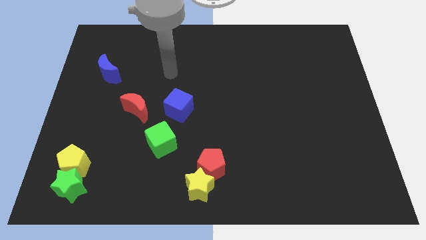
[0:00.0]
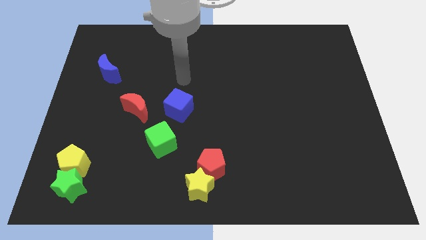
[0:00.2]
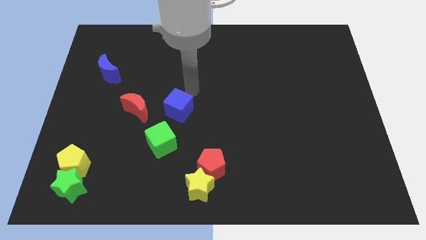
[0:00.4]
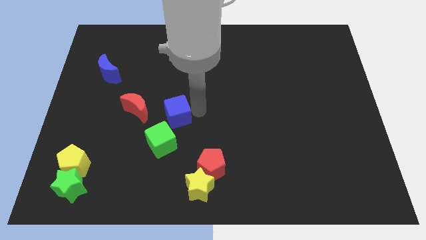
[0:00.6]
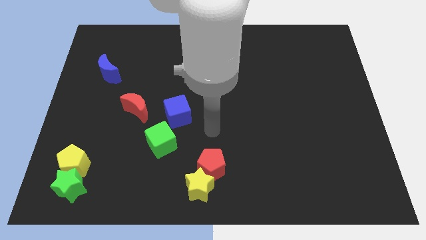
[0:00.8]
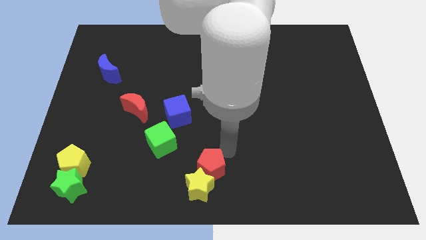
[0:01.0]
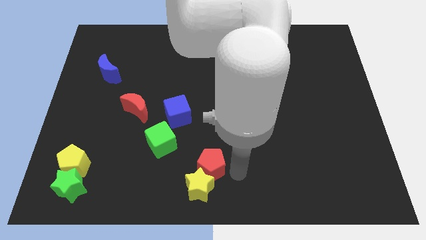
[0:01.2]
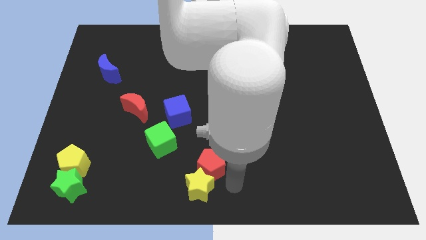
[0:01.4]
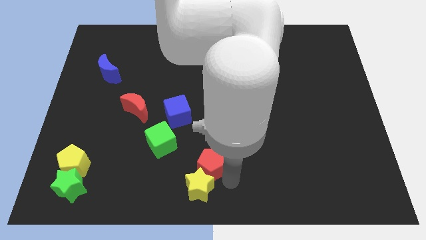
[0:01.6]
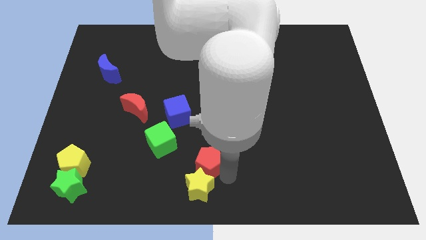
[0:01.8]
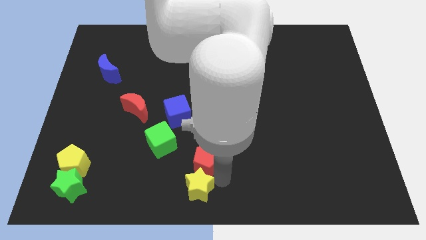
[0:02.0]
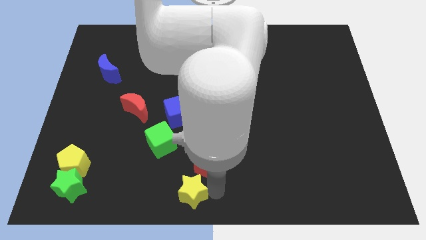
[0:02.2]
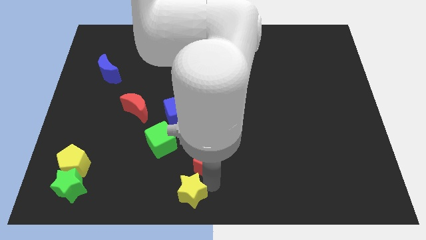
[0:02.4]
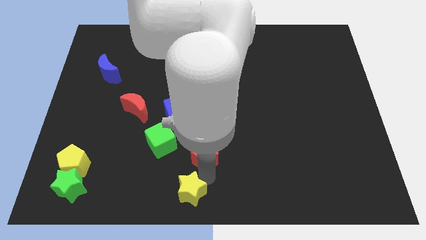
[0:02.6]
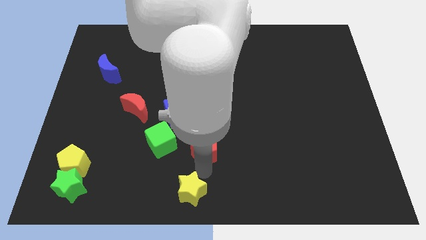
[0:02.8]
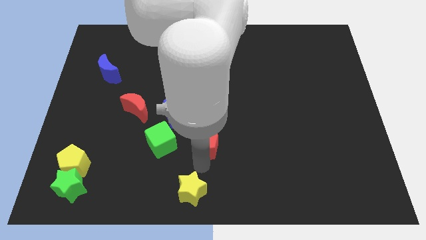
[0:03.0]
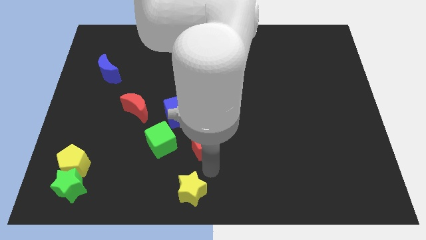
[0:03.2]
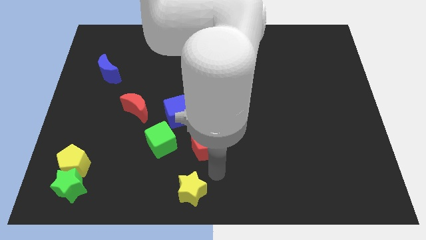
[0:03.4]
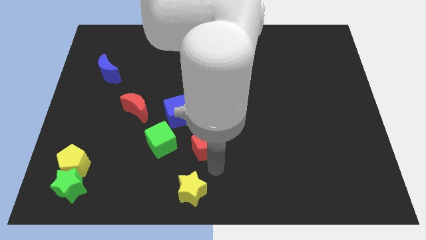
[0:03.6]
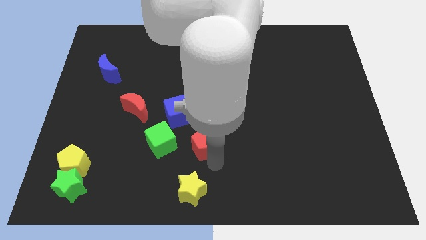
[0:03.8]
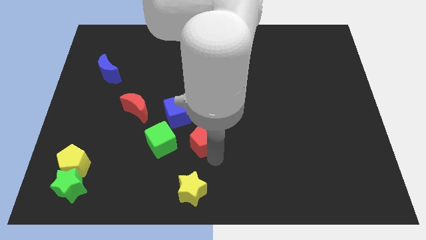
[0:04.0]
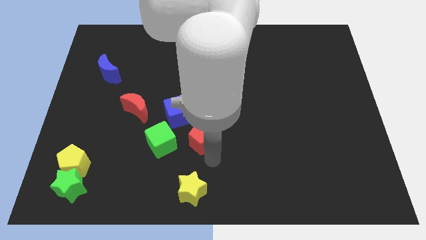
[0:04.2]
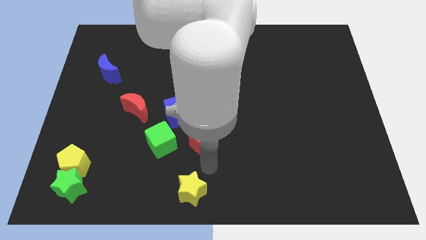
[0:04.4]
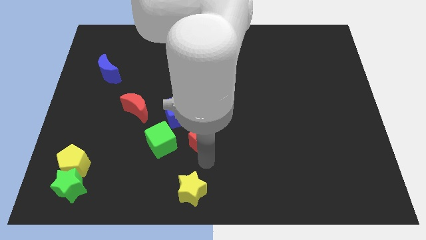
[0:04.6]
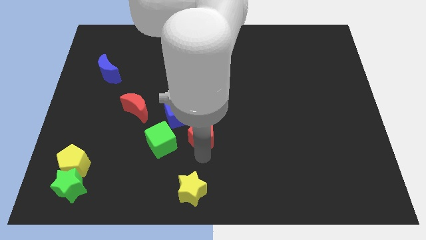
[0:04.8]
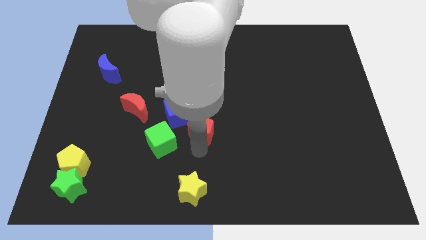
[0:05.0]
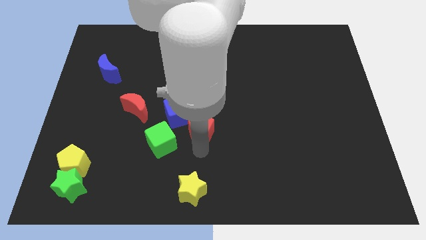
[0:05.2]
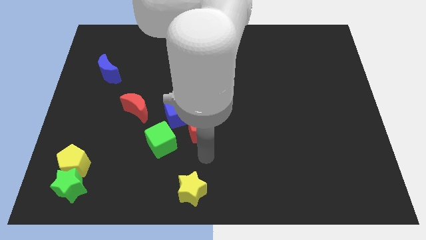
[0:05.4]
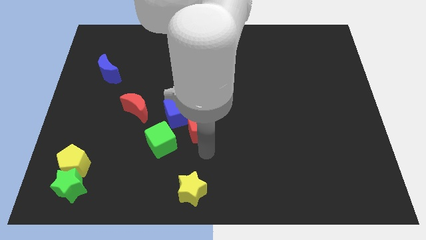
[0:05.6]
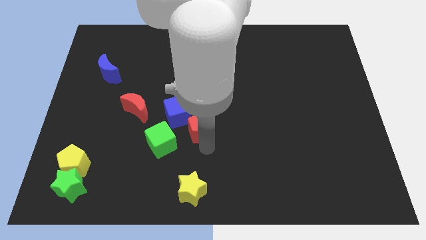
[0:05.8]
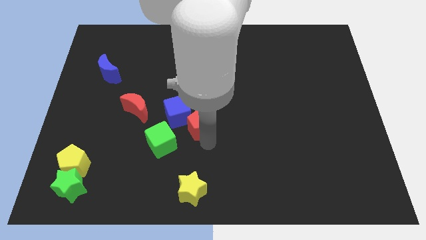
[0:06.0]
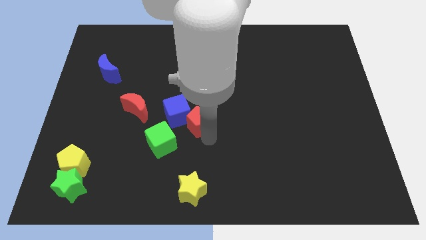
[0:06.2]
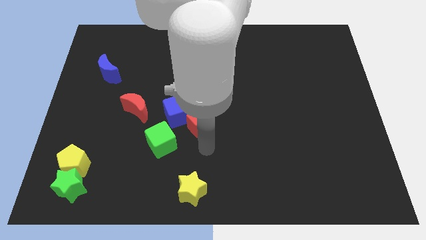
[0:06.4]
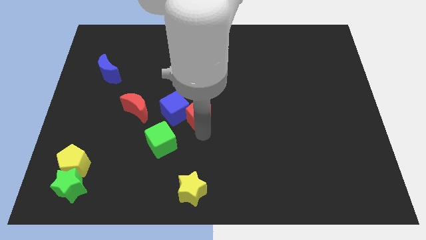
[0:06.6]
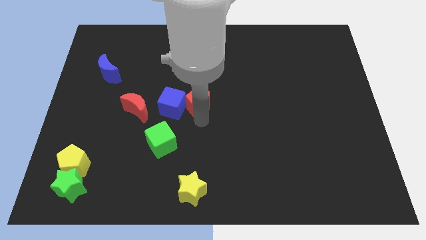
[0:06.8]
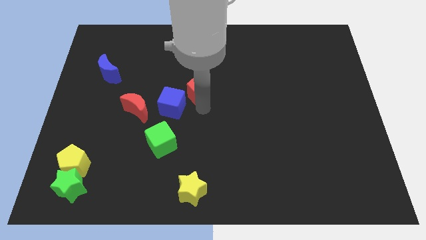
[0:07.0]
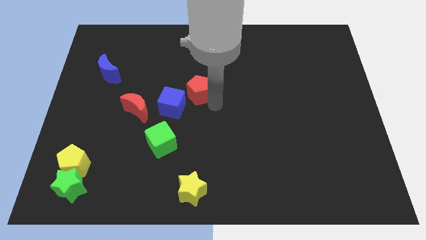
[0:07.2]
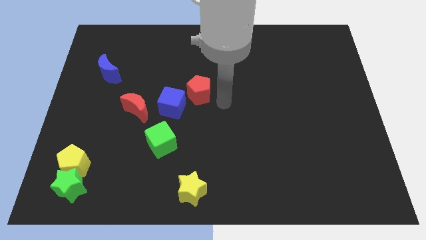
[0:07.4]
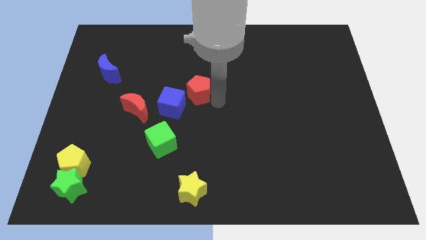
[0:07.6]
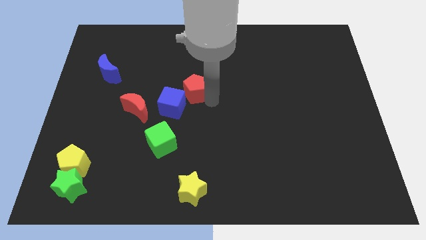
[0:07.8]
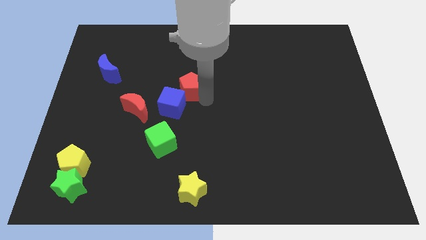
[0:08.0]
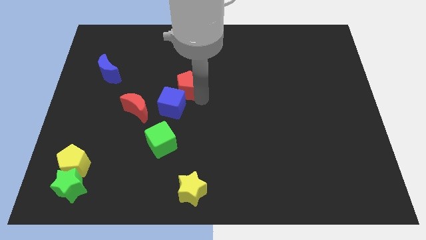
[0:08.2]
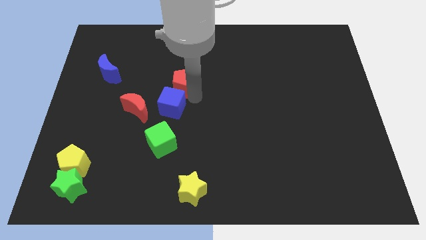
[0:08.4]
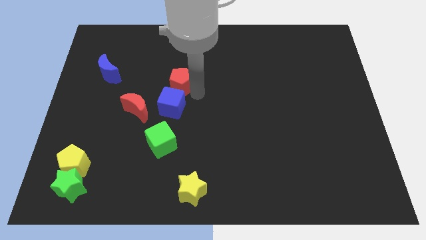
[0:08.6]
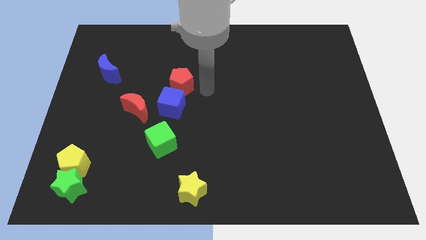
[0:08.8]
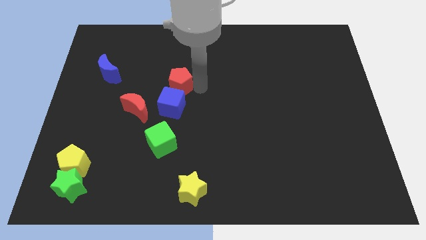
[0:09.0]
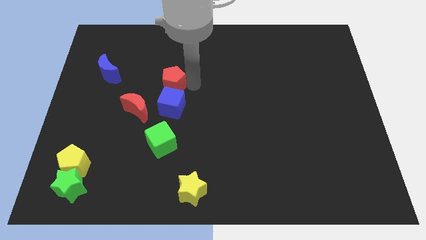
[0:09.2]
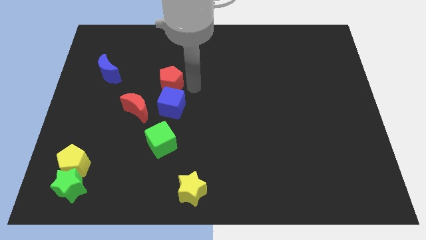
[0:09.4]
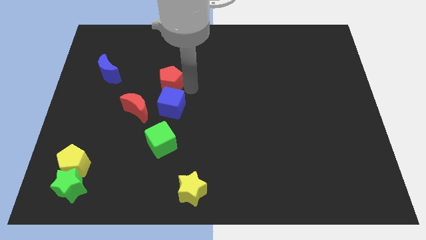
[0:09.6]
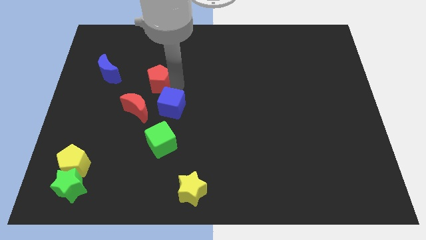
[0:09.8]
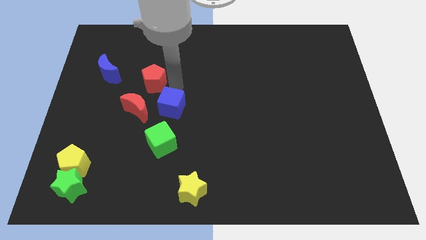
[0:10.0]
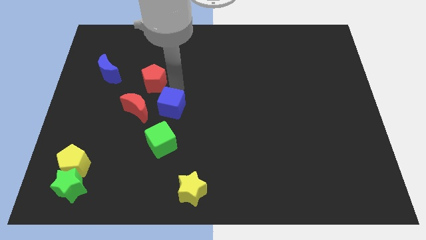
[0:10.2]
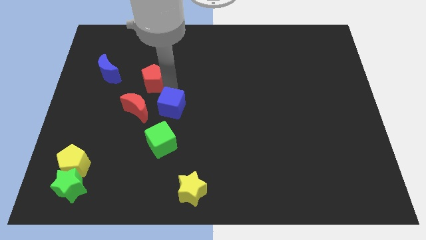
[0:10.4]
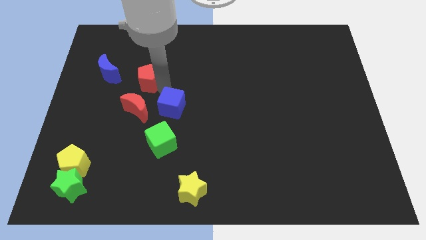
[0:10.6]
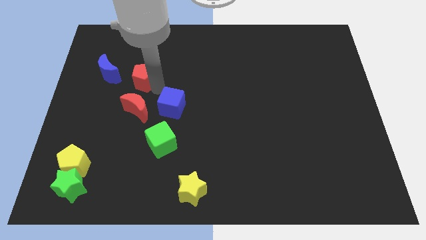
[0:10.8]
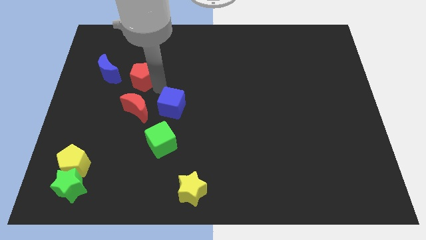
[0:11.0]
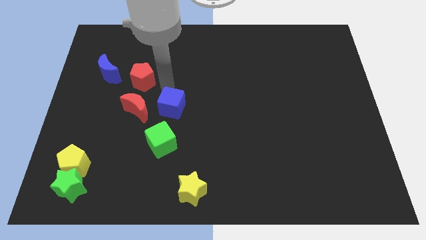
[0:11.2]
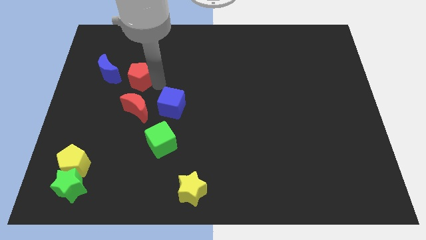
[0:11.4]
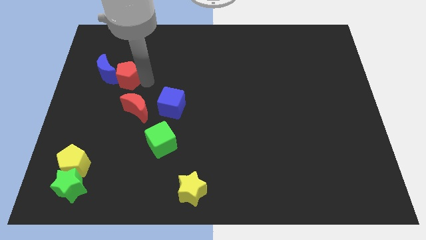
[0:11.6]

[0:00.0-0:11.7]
push the red pentagon towards the blue moon
